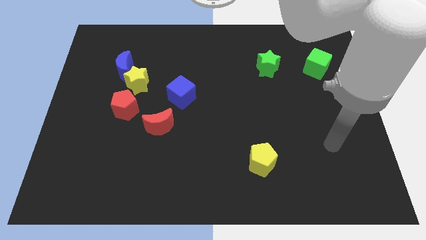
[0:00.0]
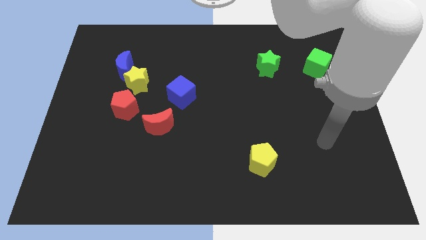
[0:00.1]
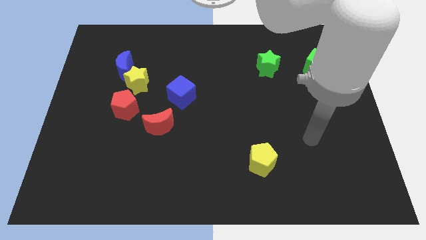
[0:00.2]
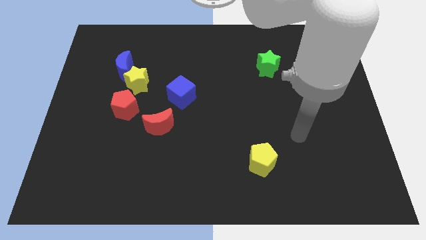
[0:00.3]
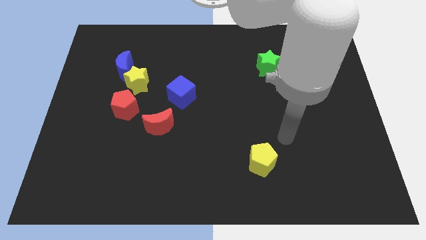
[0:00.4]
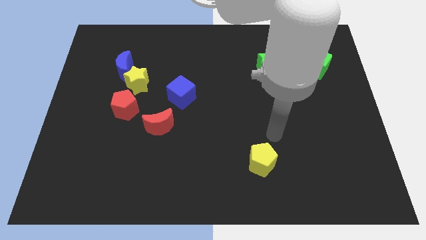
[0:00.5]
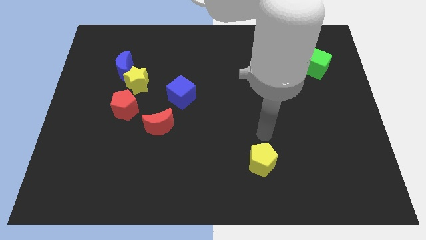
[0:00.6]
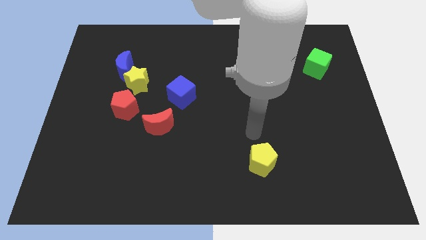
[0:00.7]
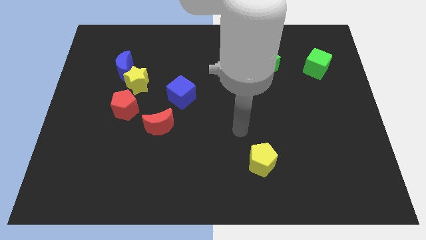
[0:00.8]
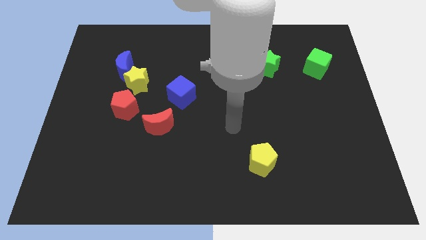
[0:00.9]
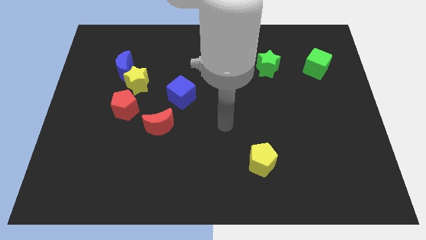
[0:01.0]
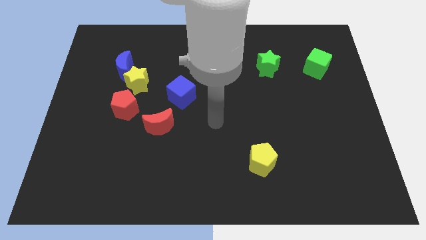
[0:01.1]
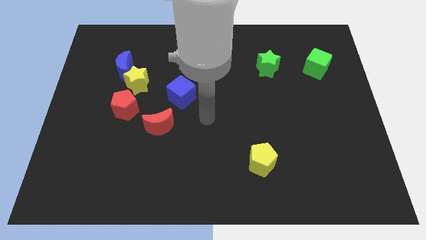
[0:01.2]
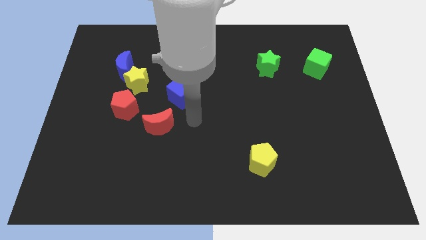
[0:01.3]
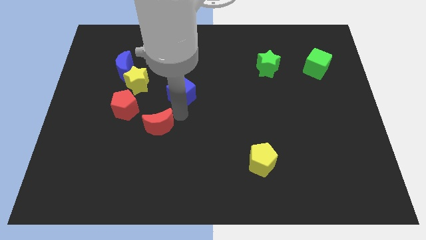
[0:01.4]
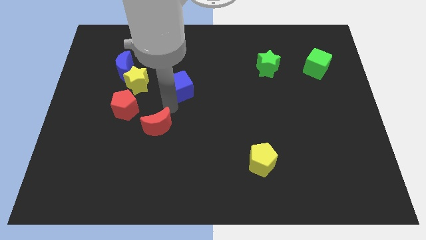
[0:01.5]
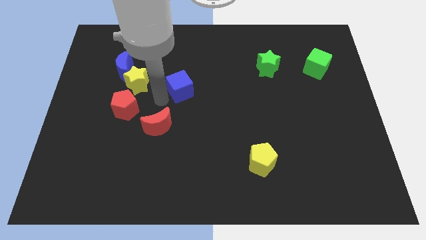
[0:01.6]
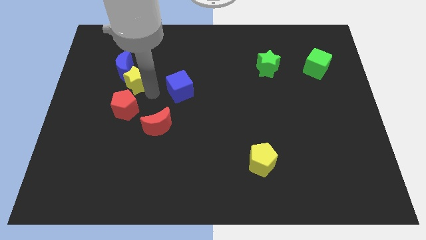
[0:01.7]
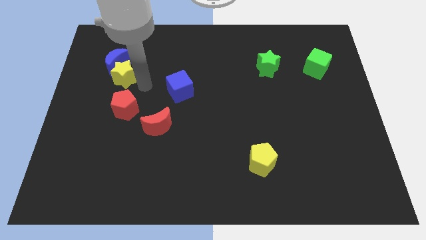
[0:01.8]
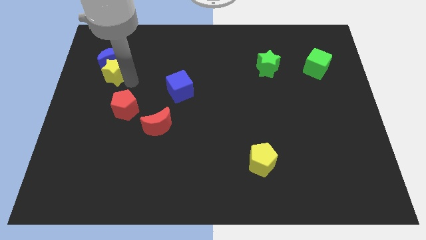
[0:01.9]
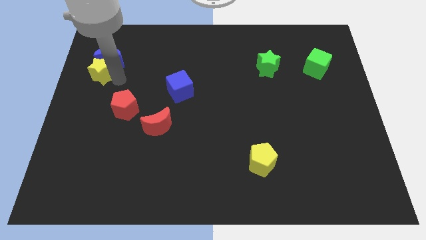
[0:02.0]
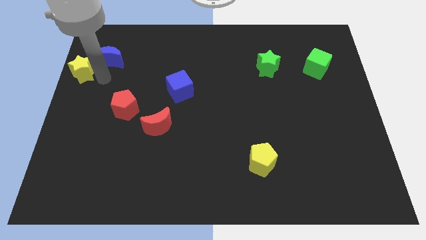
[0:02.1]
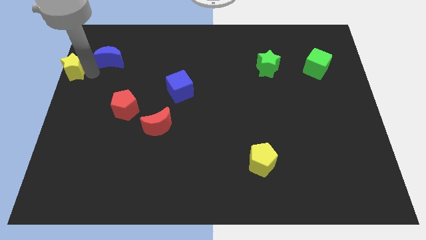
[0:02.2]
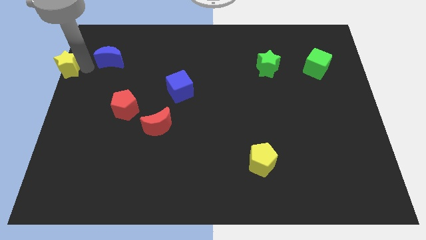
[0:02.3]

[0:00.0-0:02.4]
separate the blue moon from the yellow star

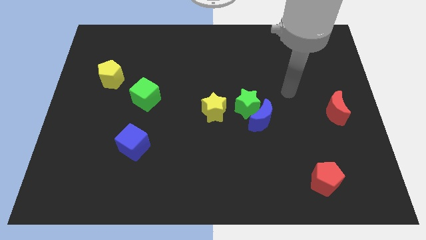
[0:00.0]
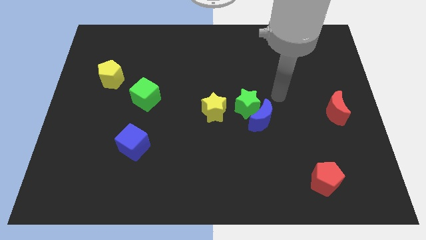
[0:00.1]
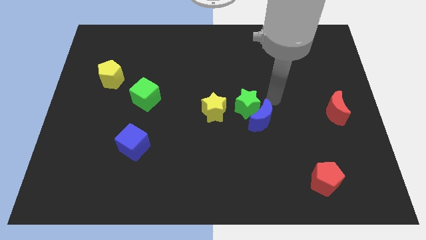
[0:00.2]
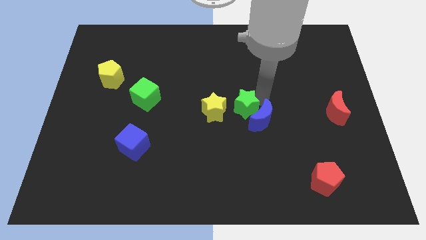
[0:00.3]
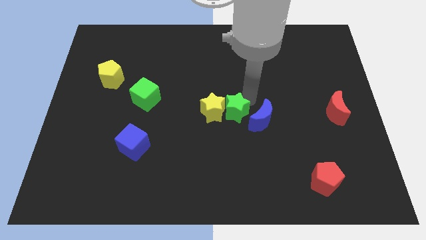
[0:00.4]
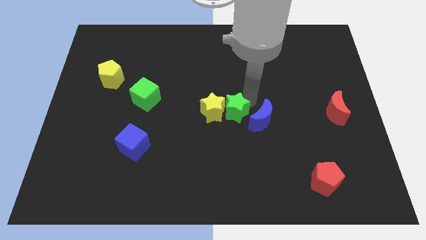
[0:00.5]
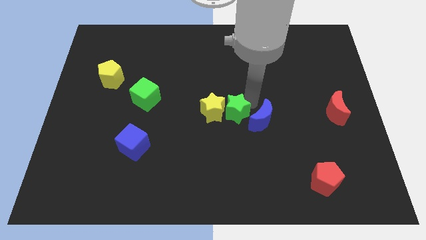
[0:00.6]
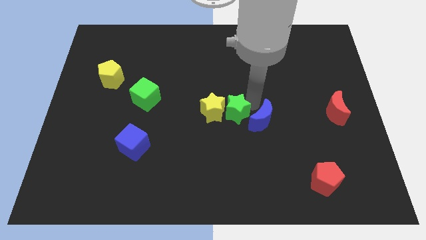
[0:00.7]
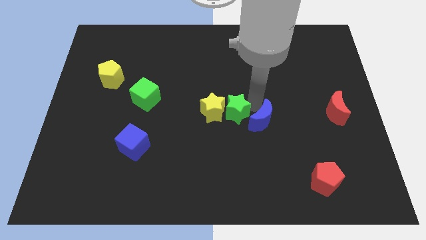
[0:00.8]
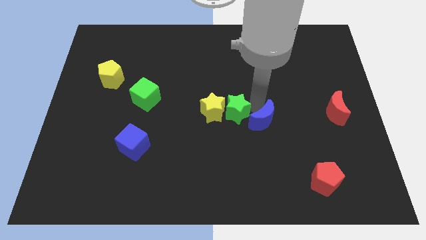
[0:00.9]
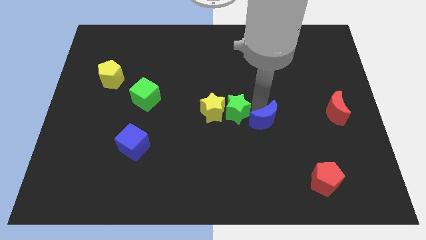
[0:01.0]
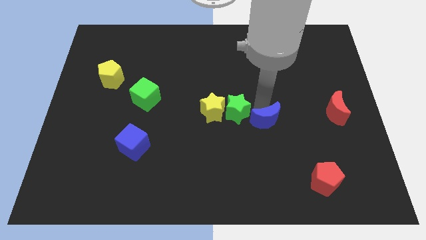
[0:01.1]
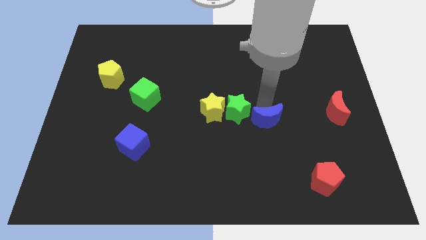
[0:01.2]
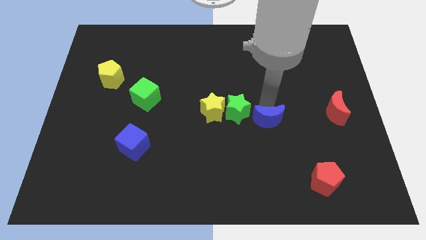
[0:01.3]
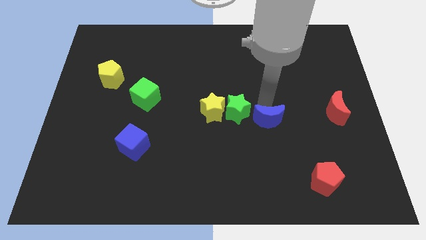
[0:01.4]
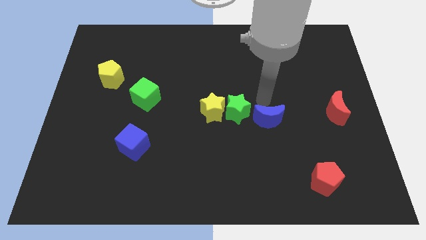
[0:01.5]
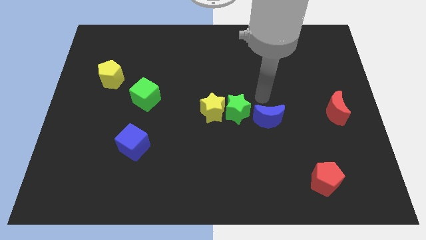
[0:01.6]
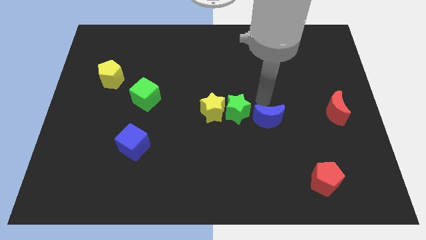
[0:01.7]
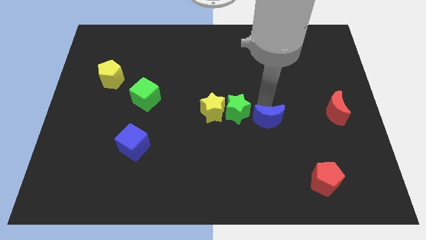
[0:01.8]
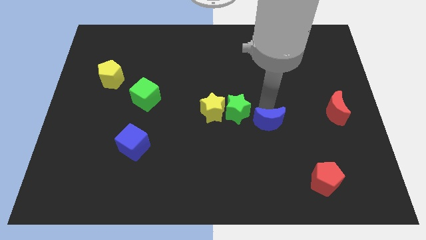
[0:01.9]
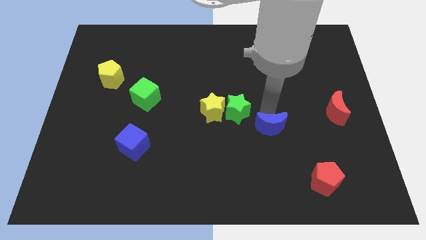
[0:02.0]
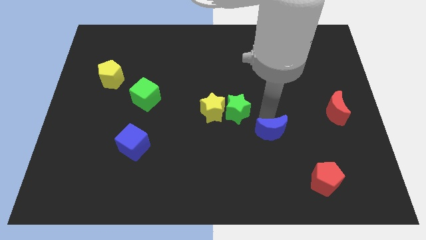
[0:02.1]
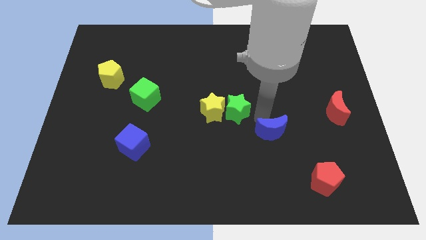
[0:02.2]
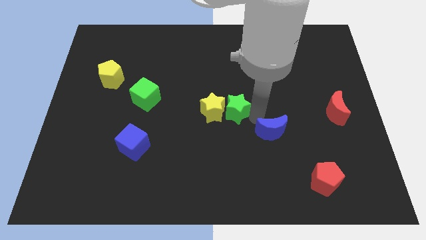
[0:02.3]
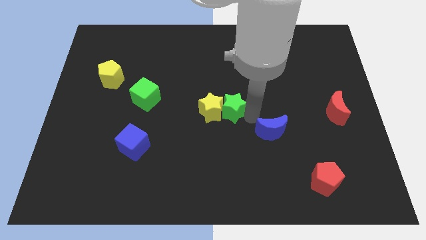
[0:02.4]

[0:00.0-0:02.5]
move the blue moon away from the green star

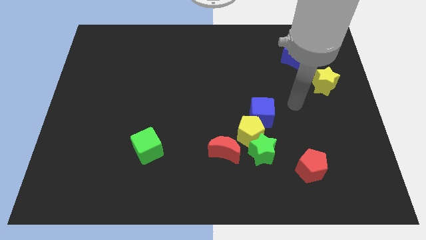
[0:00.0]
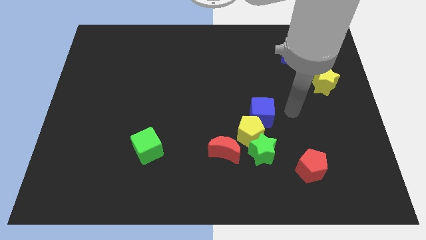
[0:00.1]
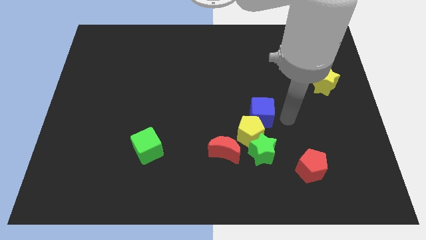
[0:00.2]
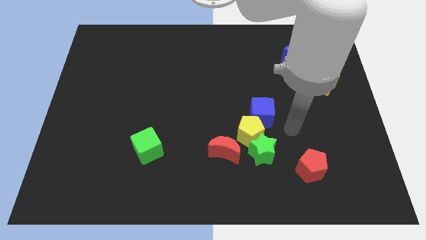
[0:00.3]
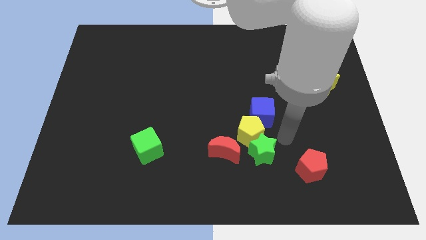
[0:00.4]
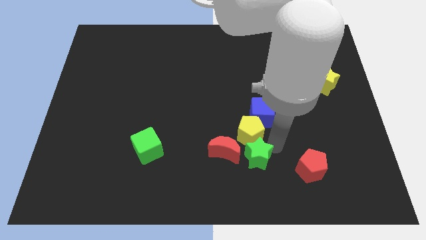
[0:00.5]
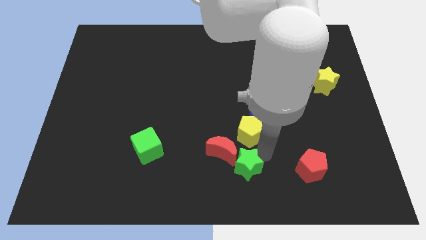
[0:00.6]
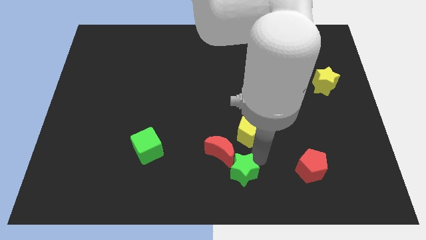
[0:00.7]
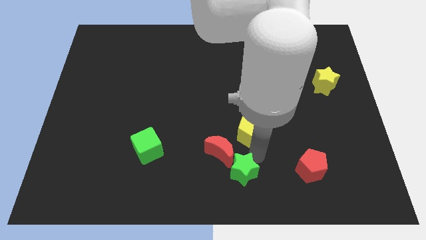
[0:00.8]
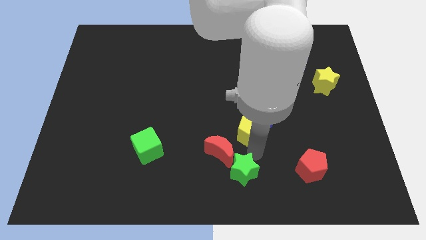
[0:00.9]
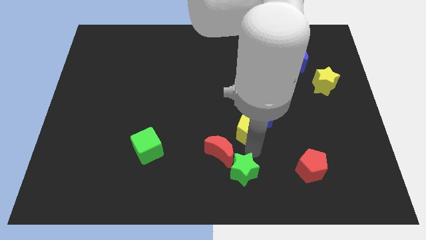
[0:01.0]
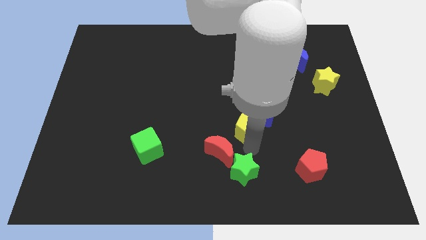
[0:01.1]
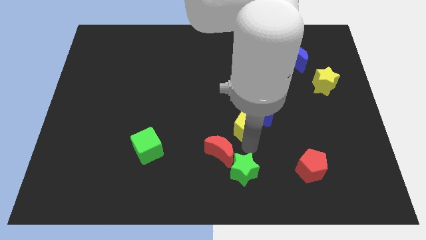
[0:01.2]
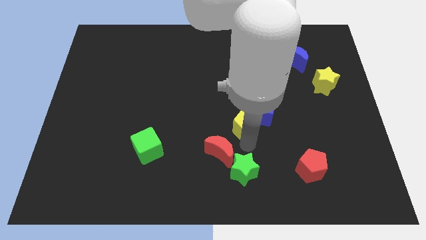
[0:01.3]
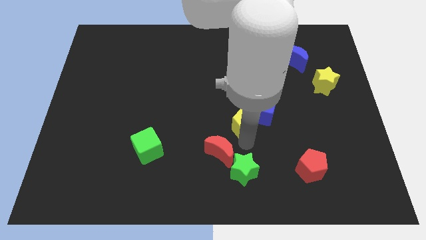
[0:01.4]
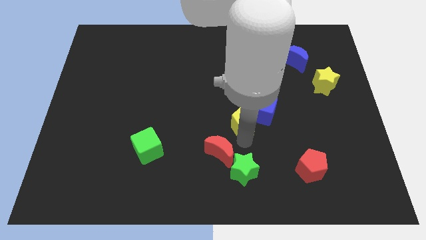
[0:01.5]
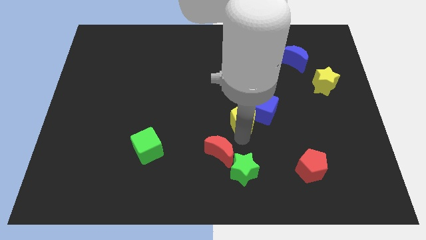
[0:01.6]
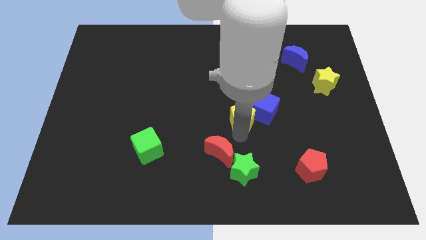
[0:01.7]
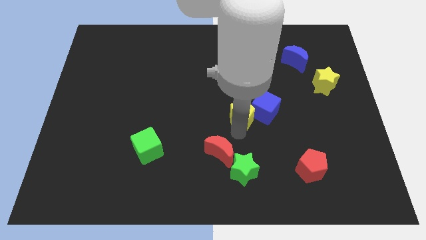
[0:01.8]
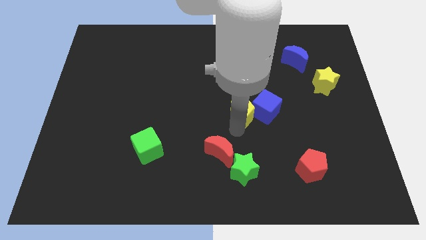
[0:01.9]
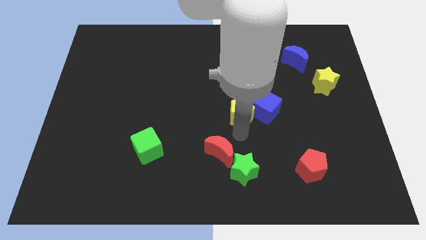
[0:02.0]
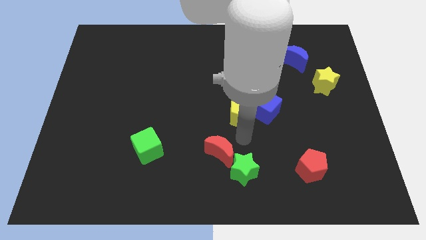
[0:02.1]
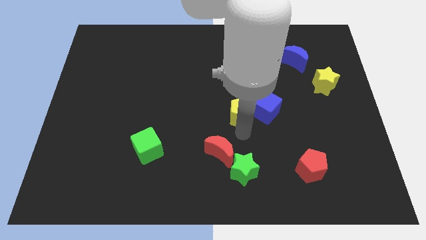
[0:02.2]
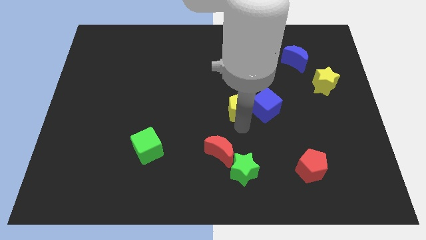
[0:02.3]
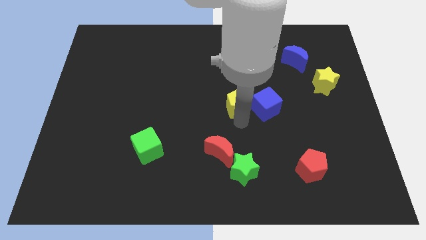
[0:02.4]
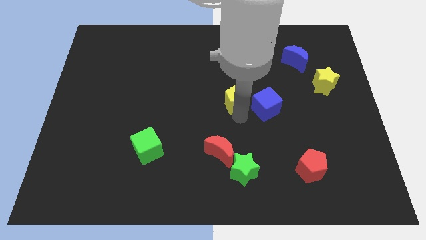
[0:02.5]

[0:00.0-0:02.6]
separate the yellow pentagon from the green star, blue cube, and red moon

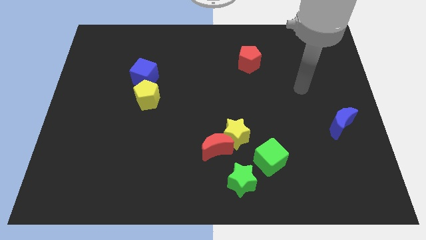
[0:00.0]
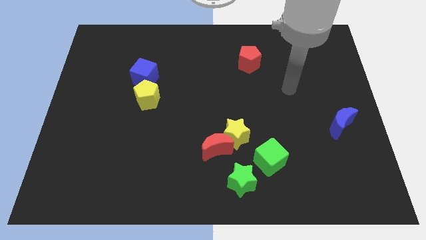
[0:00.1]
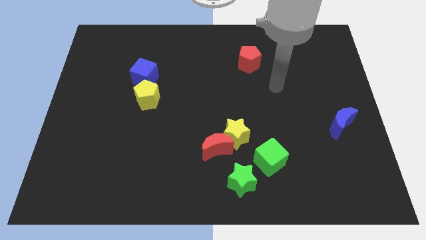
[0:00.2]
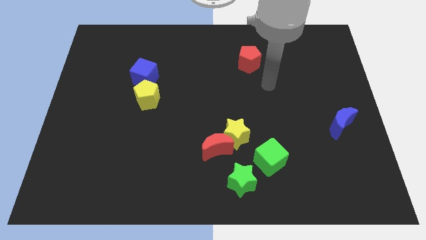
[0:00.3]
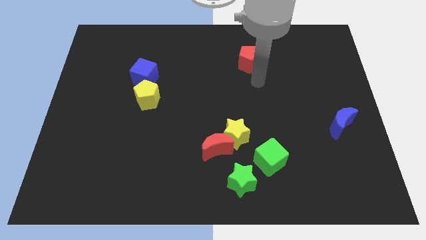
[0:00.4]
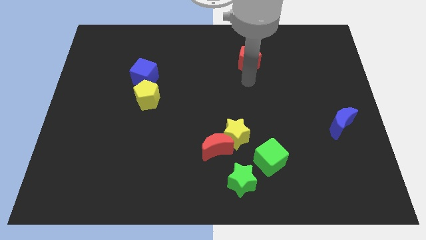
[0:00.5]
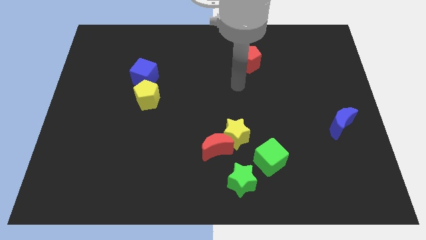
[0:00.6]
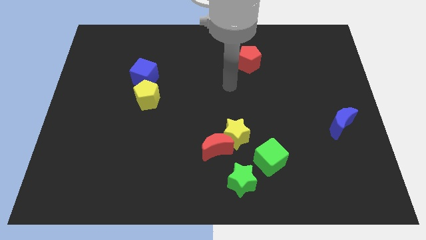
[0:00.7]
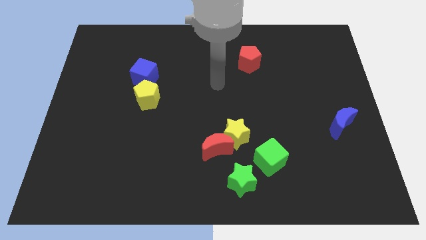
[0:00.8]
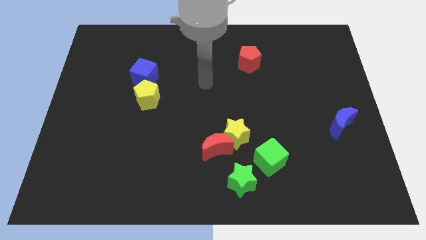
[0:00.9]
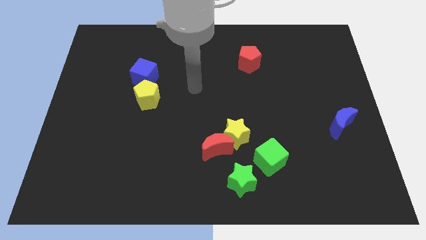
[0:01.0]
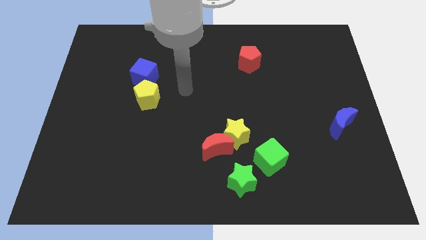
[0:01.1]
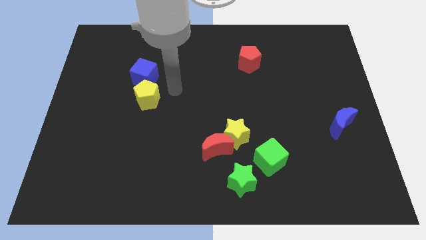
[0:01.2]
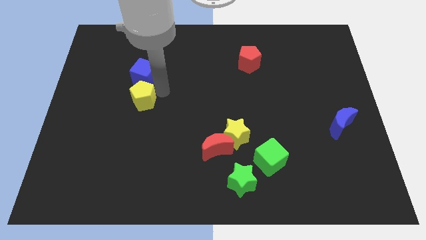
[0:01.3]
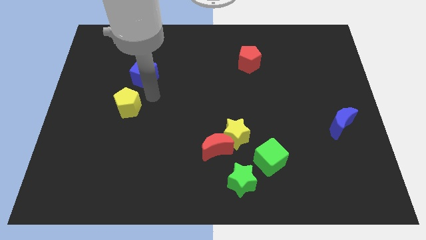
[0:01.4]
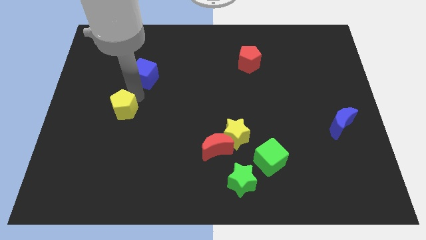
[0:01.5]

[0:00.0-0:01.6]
pull the blue cube apart from the yellow pentagon

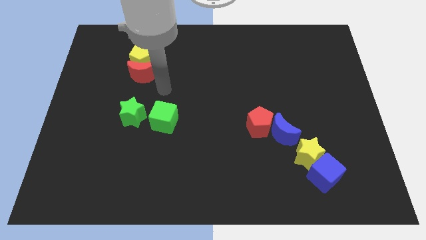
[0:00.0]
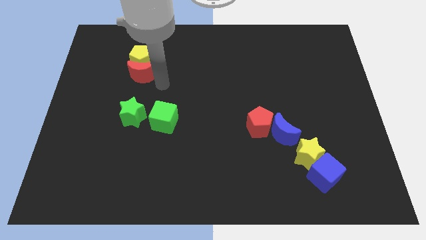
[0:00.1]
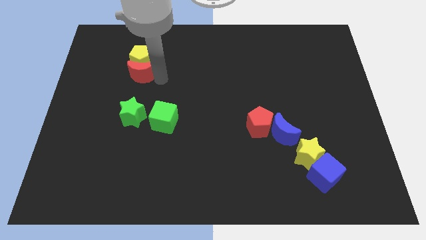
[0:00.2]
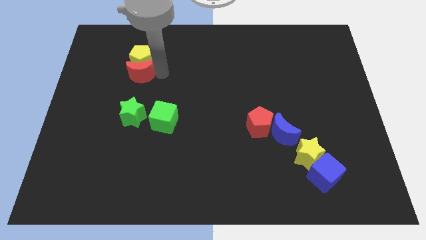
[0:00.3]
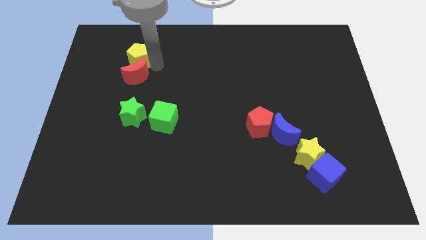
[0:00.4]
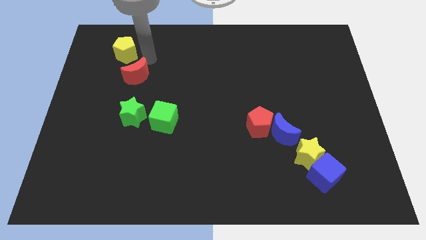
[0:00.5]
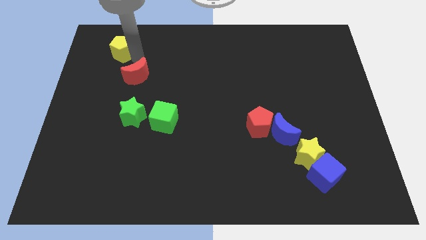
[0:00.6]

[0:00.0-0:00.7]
move the red moon away from the yellow pentagon
